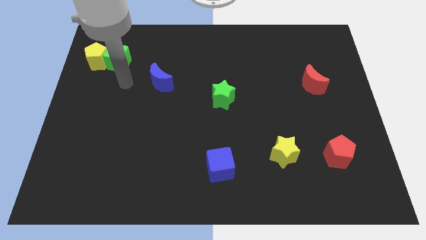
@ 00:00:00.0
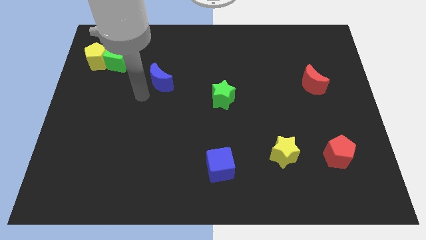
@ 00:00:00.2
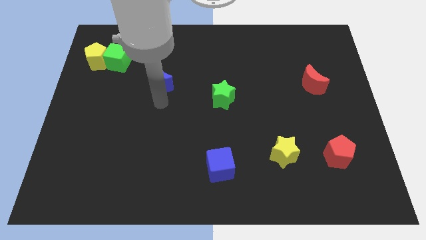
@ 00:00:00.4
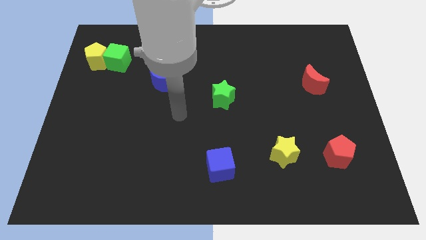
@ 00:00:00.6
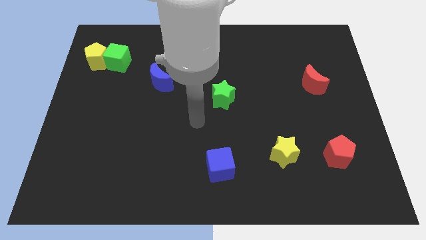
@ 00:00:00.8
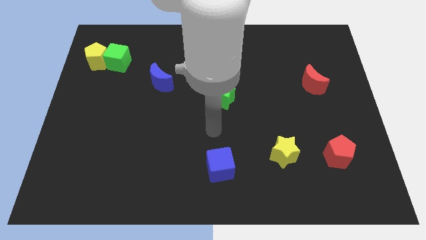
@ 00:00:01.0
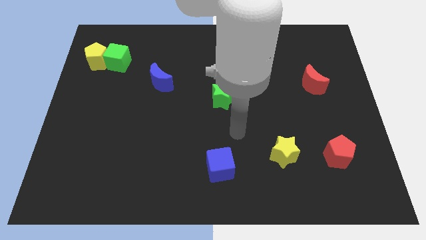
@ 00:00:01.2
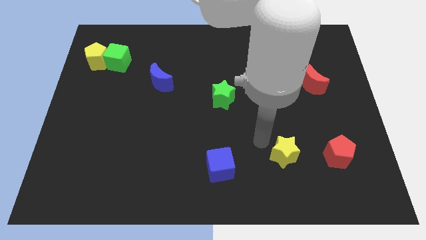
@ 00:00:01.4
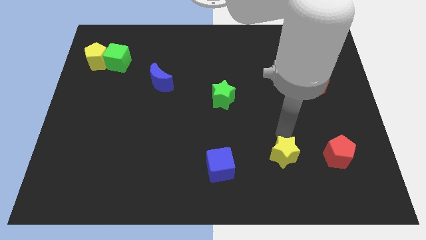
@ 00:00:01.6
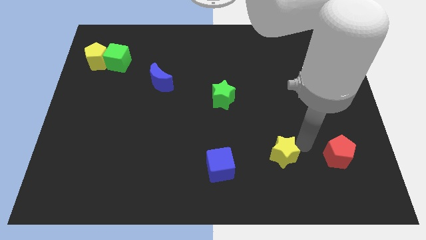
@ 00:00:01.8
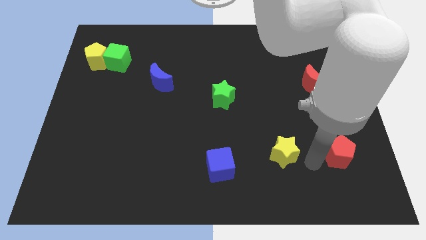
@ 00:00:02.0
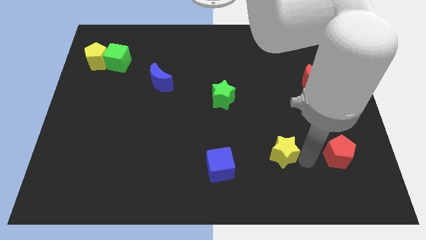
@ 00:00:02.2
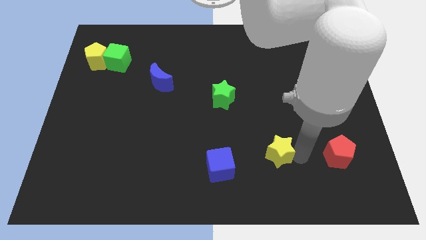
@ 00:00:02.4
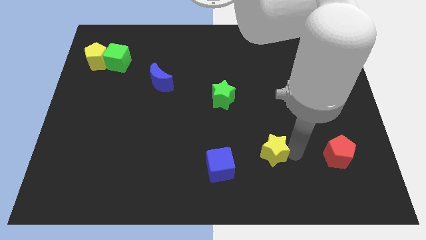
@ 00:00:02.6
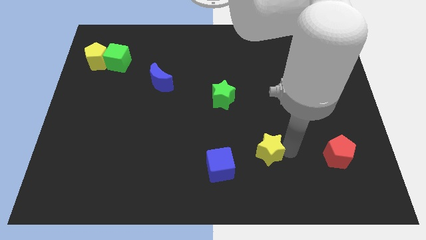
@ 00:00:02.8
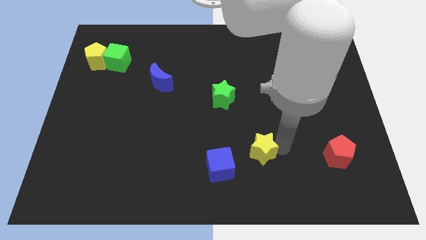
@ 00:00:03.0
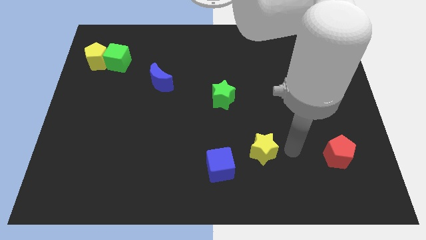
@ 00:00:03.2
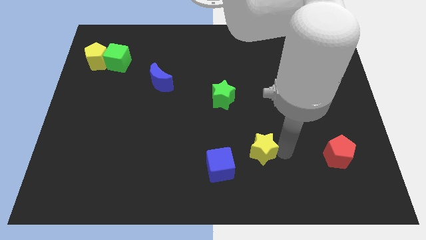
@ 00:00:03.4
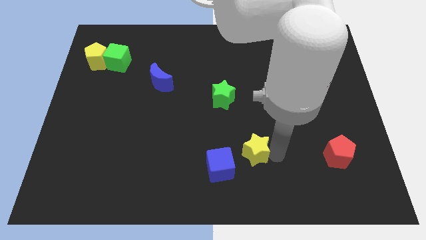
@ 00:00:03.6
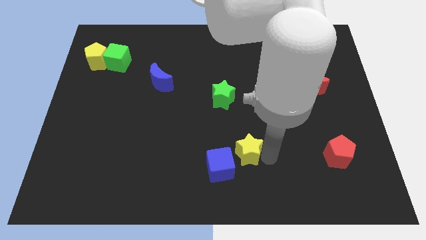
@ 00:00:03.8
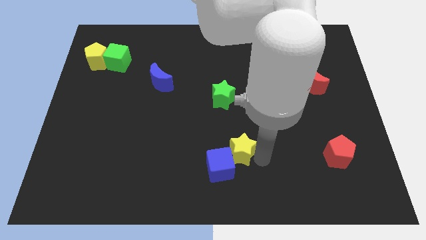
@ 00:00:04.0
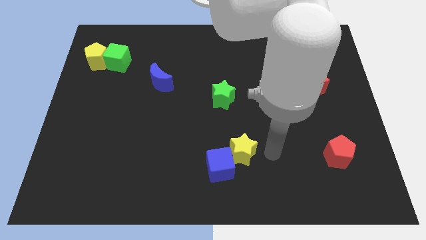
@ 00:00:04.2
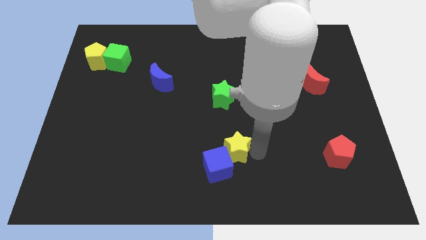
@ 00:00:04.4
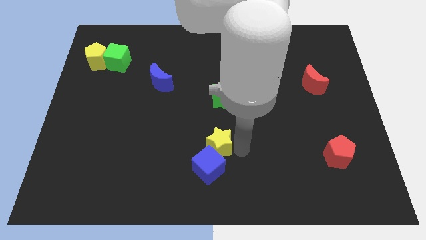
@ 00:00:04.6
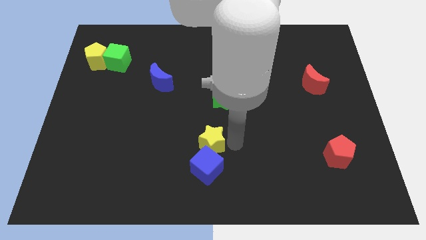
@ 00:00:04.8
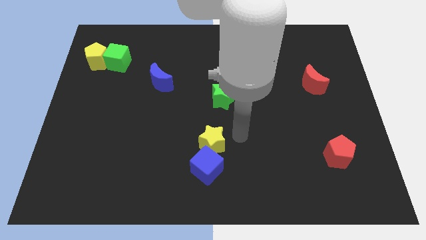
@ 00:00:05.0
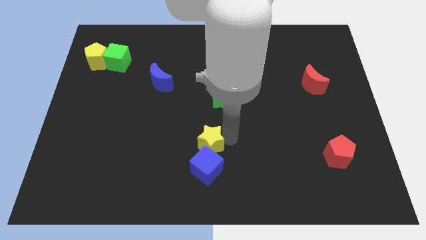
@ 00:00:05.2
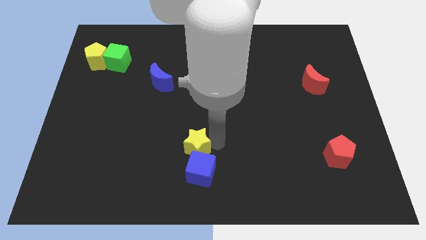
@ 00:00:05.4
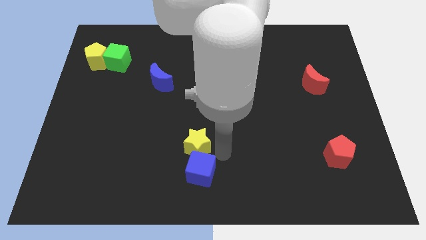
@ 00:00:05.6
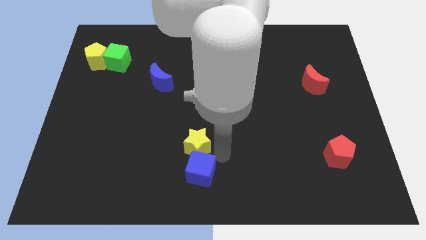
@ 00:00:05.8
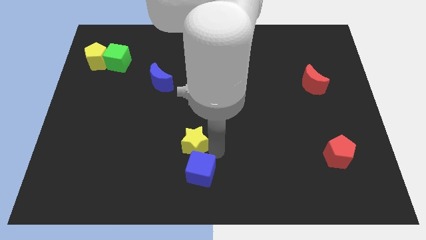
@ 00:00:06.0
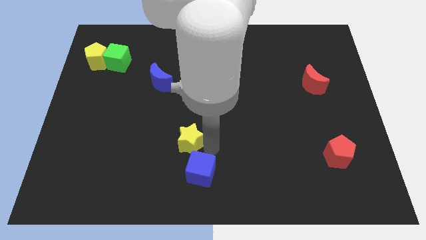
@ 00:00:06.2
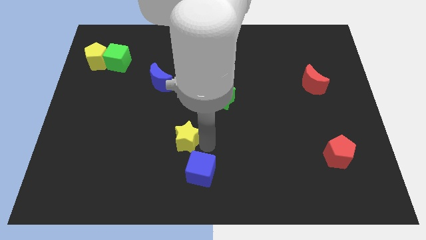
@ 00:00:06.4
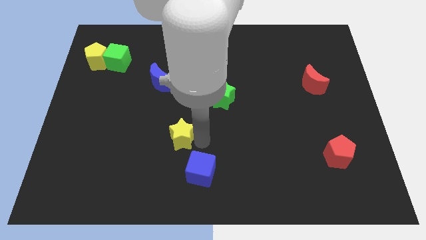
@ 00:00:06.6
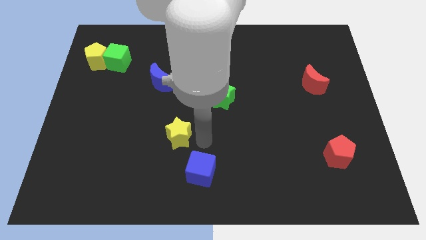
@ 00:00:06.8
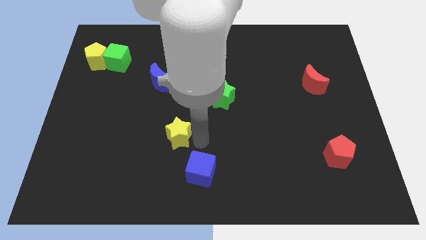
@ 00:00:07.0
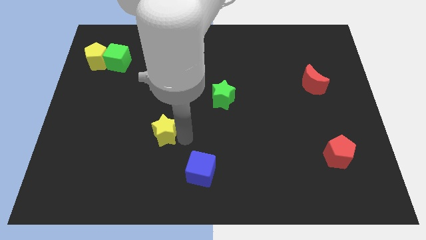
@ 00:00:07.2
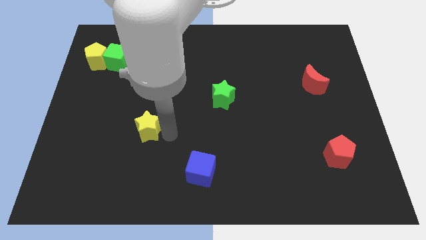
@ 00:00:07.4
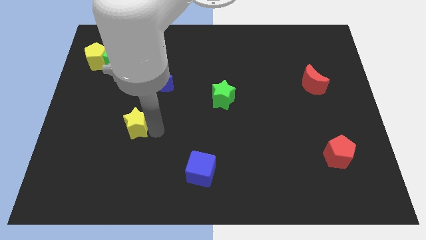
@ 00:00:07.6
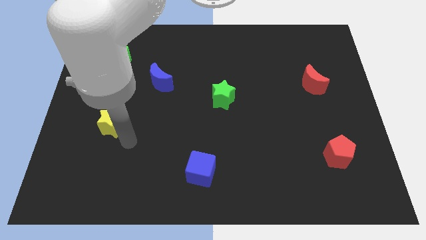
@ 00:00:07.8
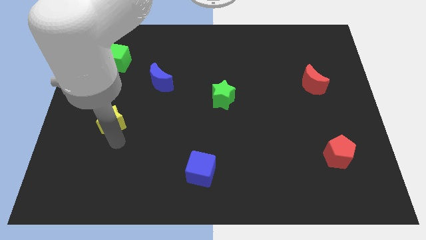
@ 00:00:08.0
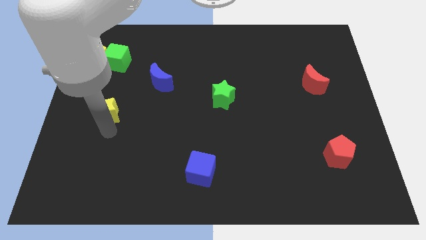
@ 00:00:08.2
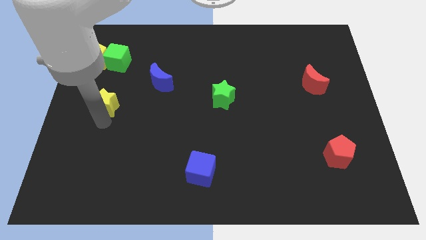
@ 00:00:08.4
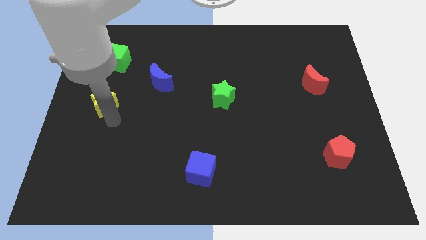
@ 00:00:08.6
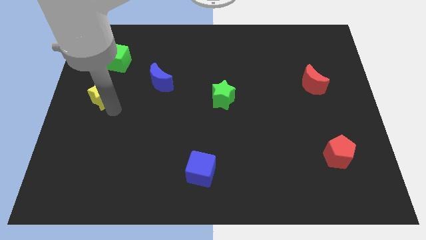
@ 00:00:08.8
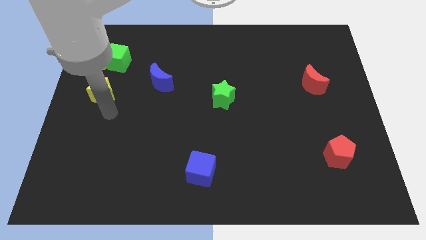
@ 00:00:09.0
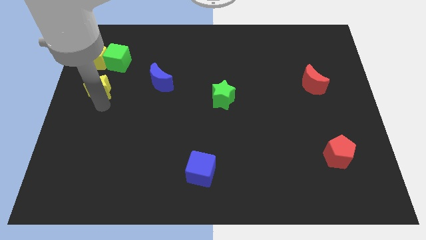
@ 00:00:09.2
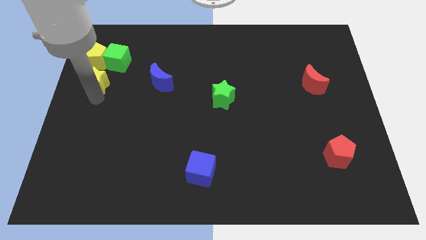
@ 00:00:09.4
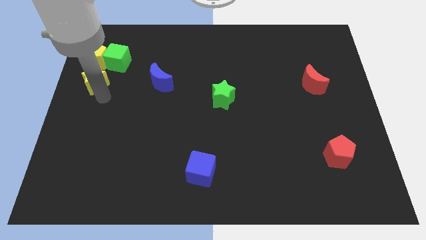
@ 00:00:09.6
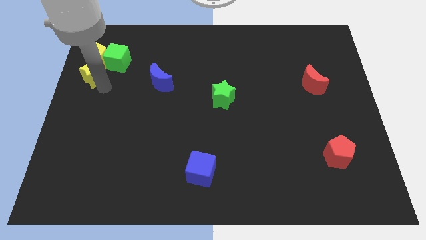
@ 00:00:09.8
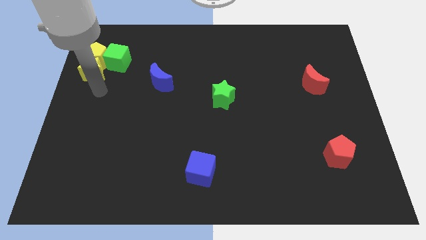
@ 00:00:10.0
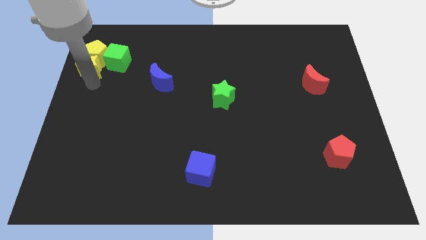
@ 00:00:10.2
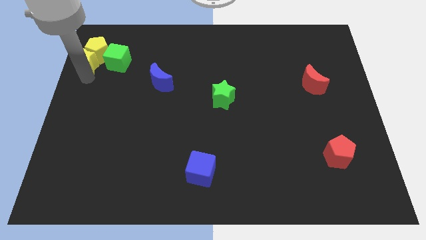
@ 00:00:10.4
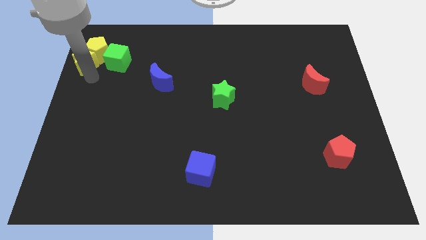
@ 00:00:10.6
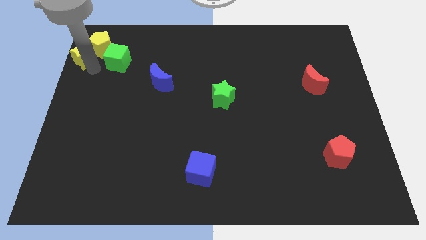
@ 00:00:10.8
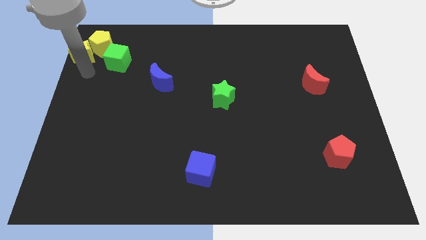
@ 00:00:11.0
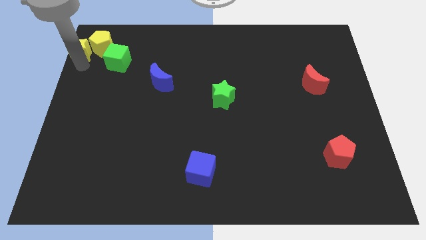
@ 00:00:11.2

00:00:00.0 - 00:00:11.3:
put the yellow star to the top left
